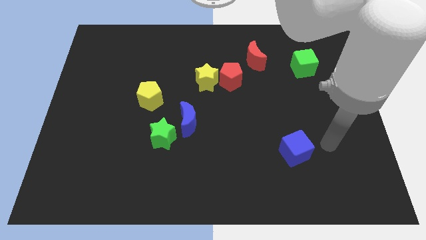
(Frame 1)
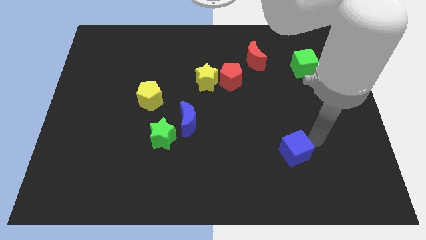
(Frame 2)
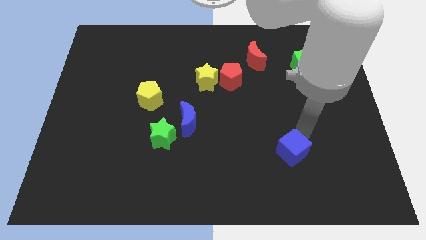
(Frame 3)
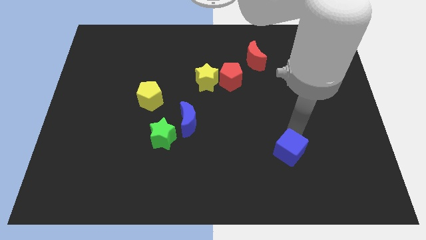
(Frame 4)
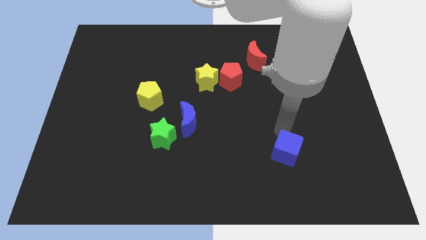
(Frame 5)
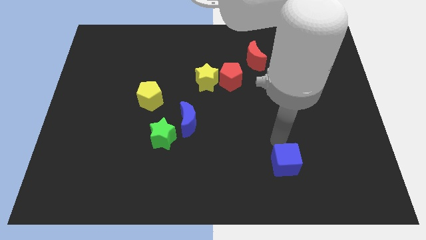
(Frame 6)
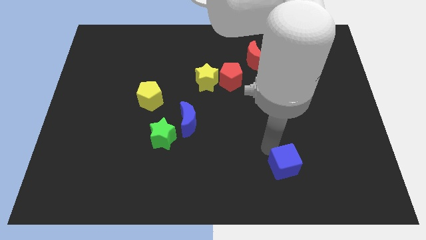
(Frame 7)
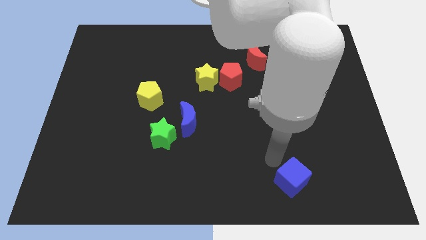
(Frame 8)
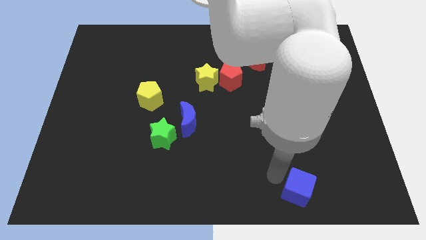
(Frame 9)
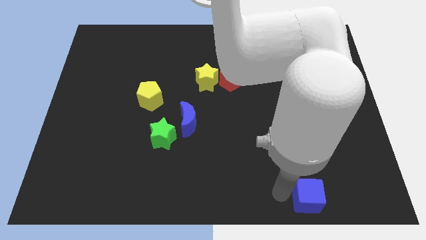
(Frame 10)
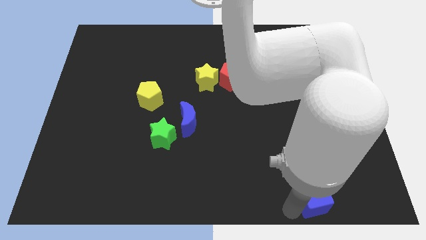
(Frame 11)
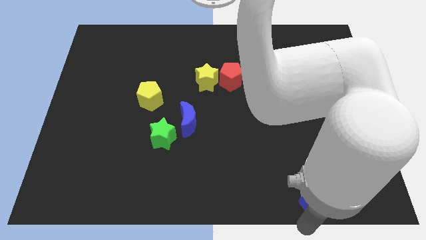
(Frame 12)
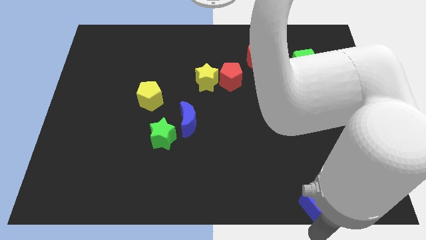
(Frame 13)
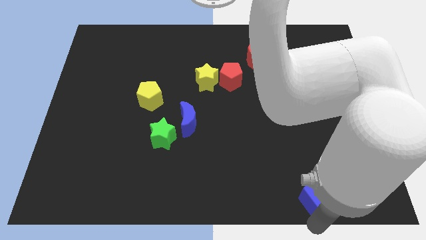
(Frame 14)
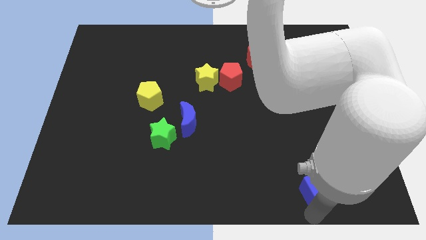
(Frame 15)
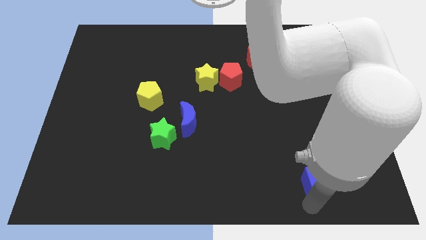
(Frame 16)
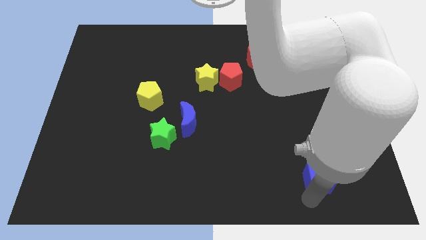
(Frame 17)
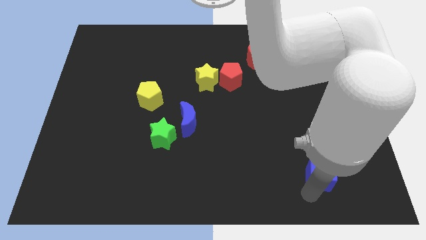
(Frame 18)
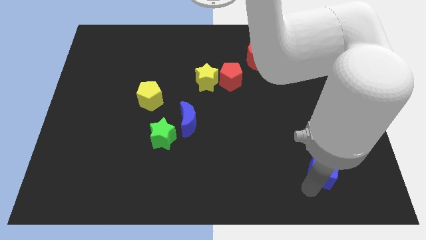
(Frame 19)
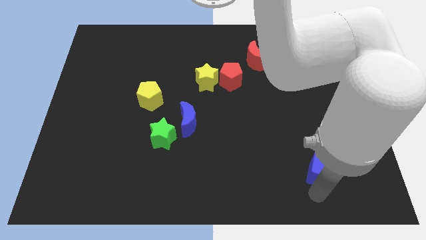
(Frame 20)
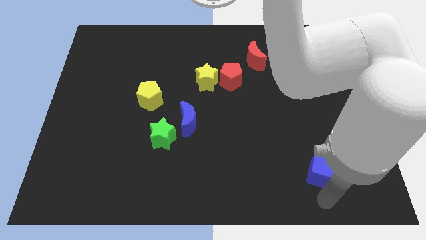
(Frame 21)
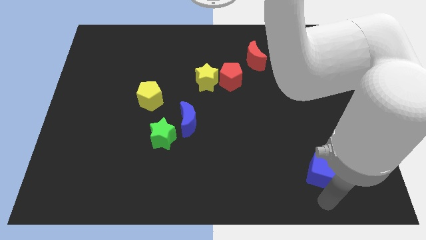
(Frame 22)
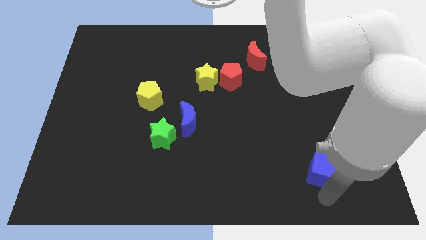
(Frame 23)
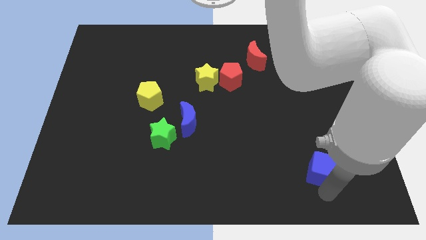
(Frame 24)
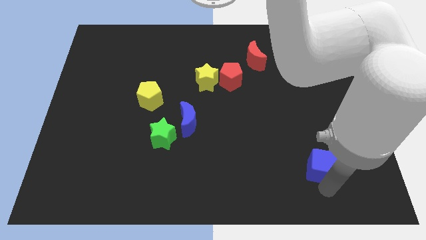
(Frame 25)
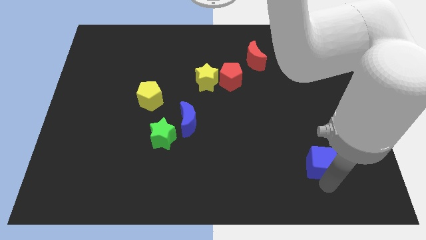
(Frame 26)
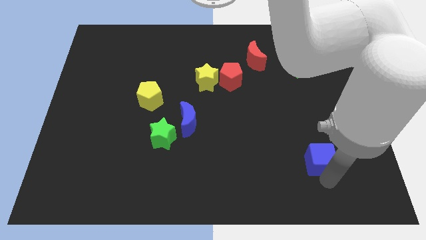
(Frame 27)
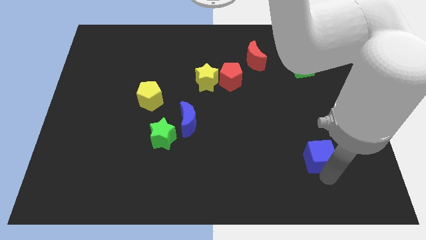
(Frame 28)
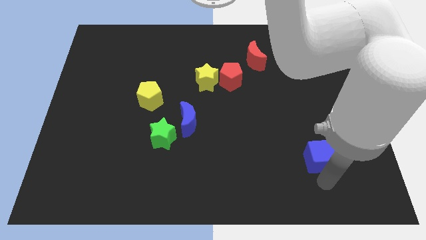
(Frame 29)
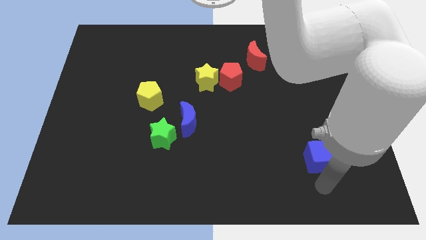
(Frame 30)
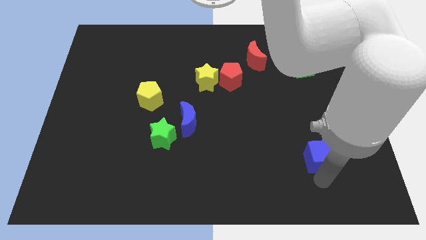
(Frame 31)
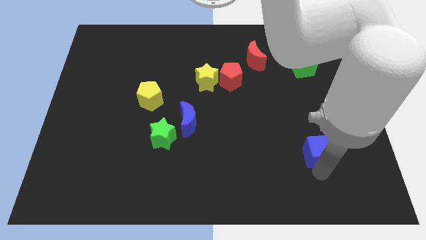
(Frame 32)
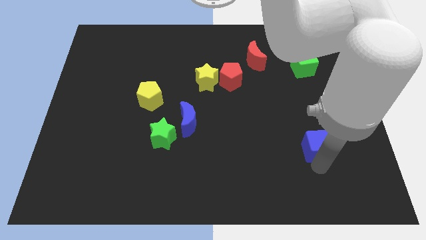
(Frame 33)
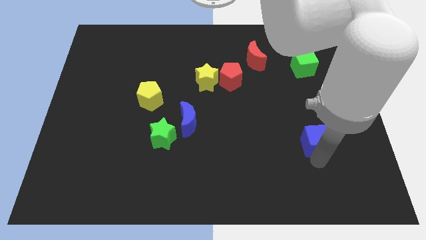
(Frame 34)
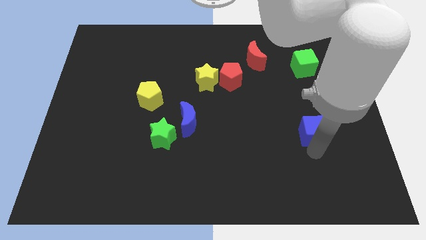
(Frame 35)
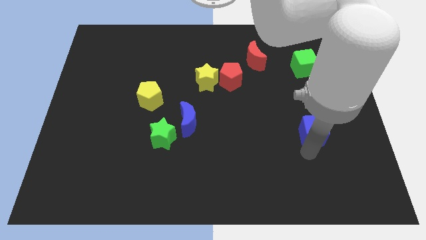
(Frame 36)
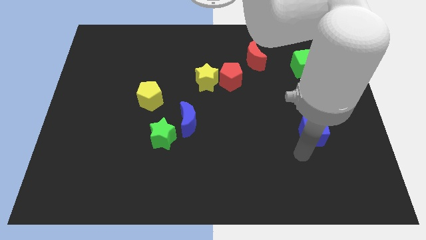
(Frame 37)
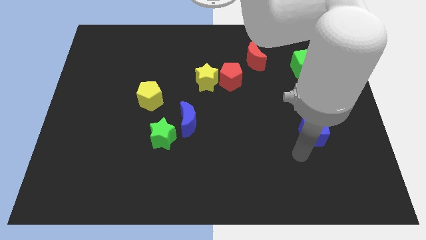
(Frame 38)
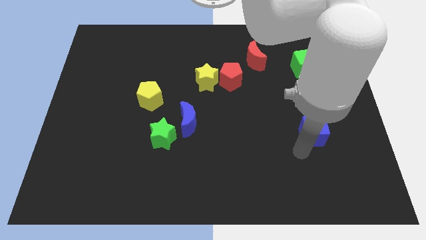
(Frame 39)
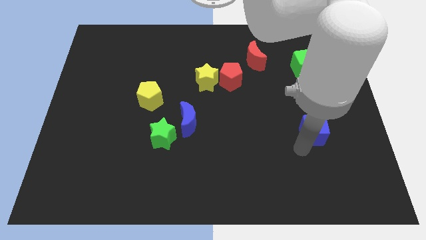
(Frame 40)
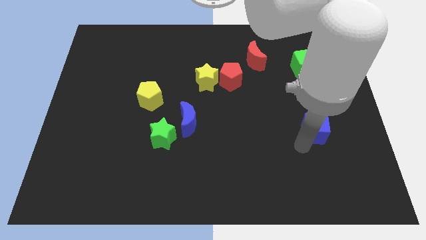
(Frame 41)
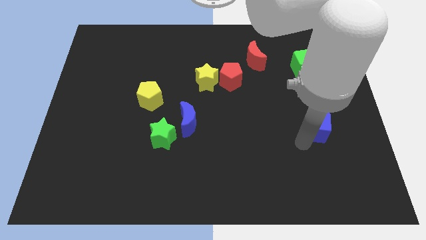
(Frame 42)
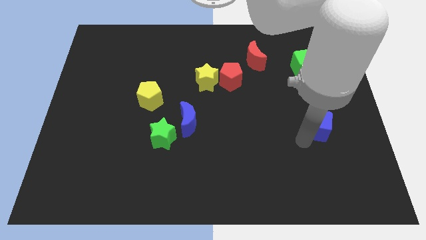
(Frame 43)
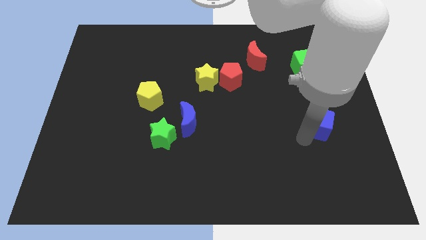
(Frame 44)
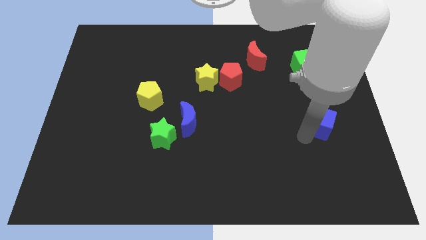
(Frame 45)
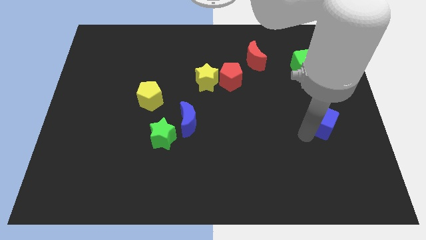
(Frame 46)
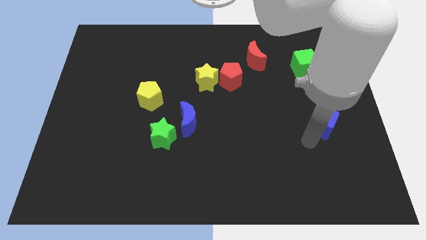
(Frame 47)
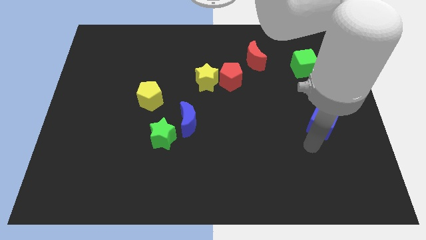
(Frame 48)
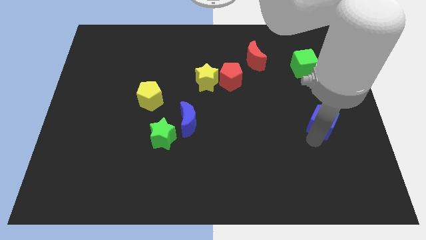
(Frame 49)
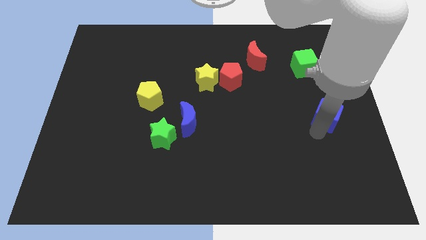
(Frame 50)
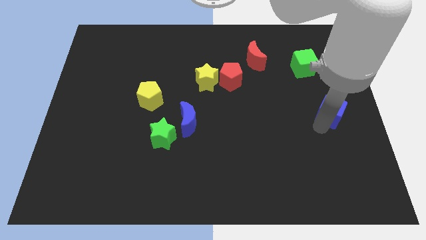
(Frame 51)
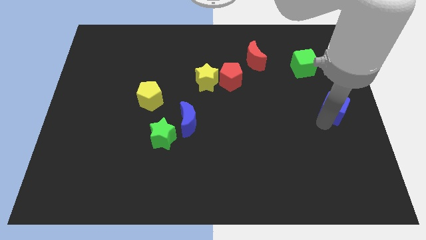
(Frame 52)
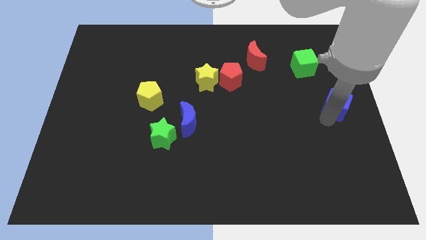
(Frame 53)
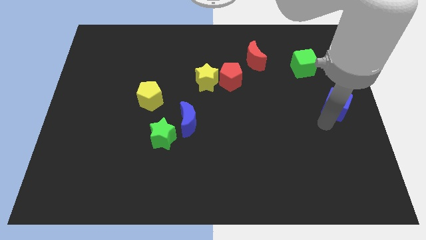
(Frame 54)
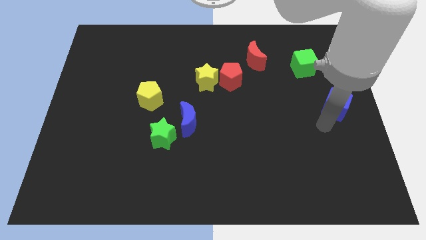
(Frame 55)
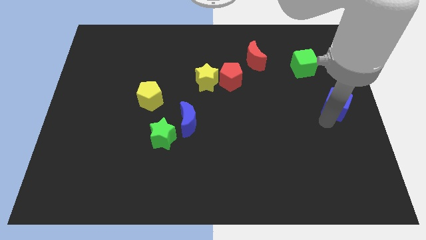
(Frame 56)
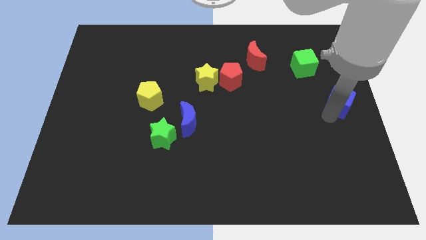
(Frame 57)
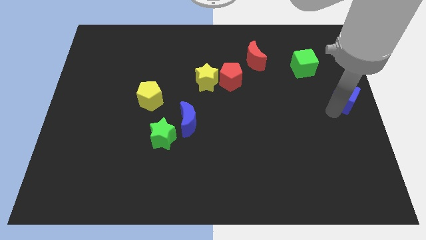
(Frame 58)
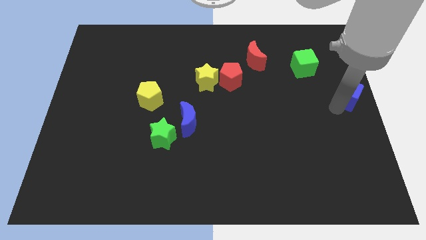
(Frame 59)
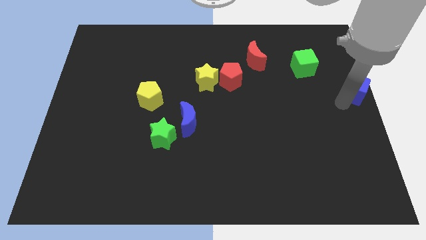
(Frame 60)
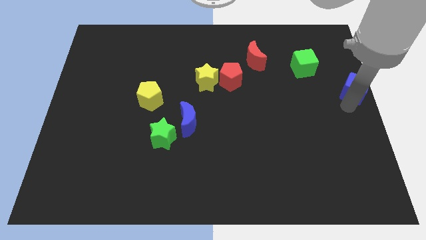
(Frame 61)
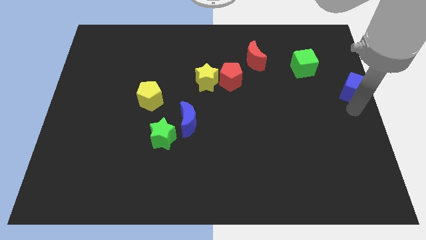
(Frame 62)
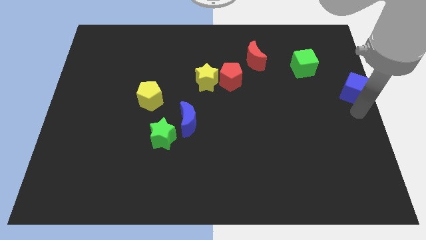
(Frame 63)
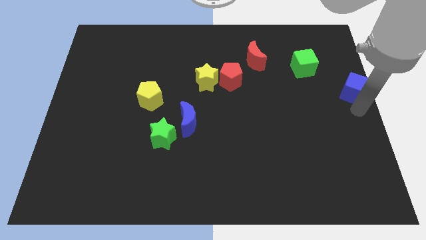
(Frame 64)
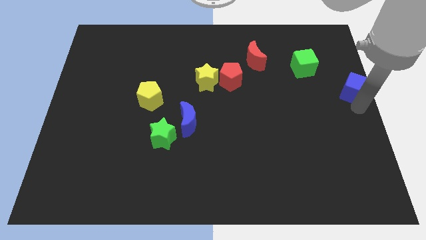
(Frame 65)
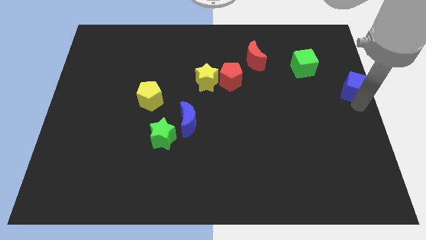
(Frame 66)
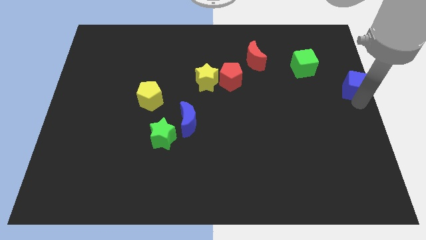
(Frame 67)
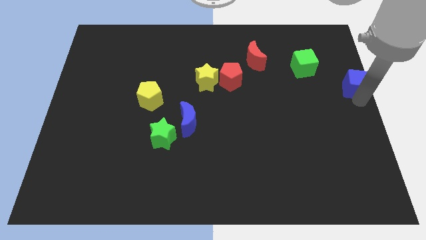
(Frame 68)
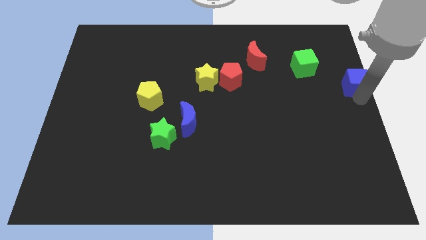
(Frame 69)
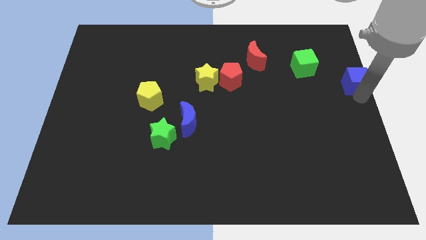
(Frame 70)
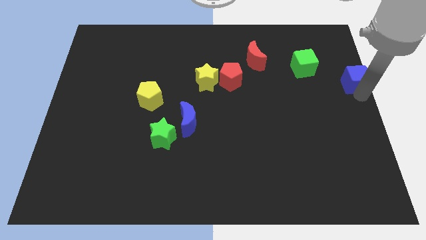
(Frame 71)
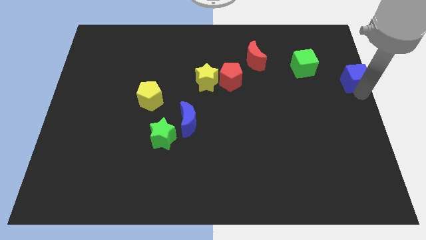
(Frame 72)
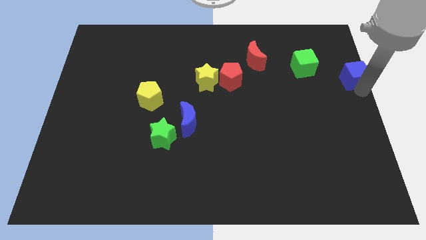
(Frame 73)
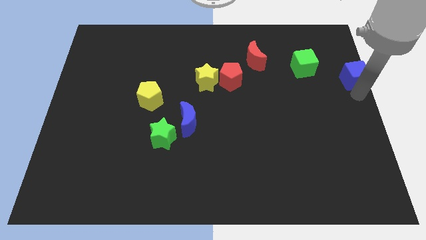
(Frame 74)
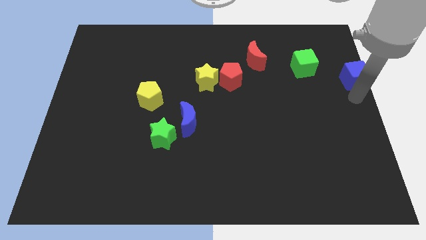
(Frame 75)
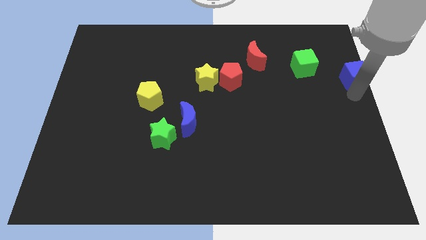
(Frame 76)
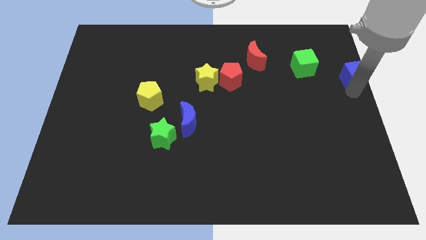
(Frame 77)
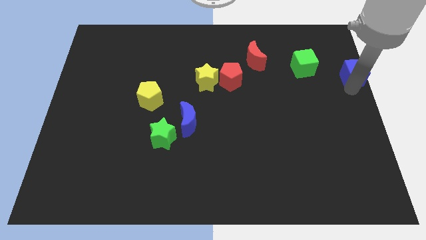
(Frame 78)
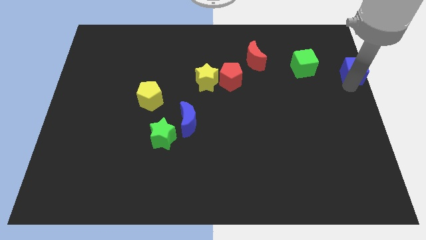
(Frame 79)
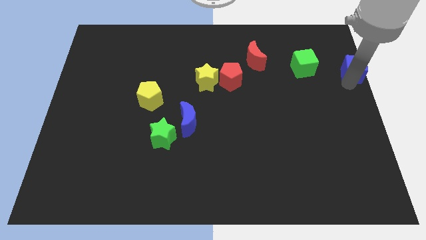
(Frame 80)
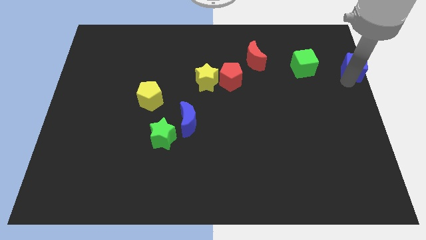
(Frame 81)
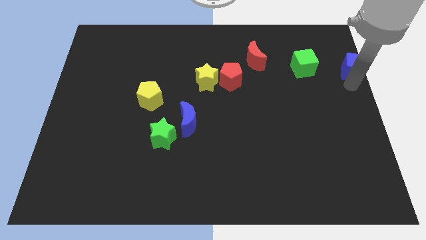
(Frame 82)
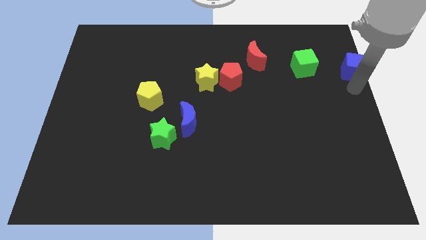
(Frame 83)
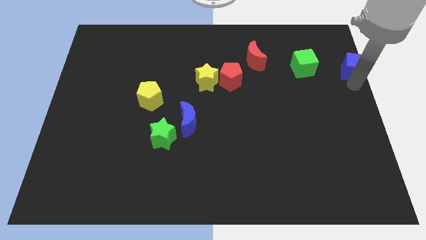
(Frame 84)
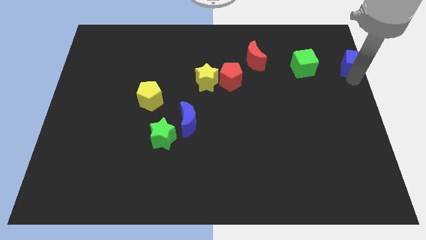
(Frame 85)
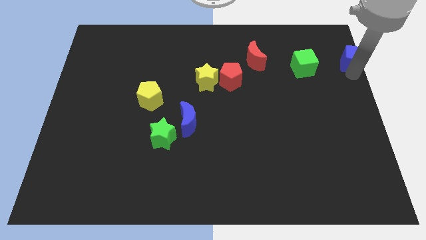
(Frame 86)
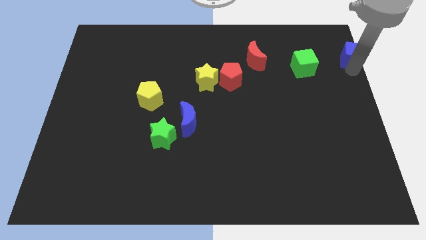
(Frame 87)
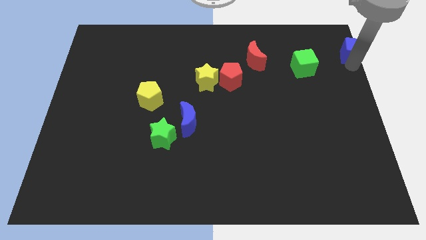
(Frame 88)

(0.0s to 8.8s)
put the blue cube to the upper right corner
